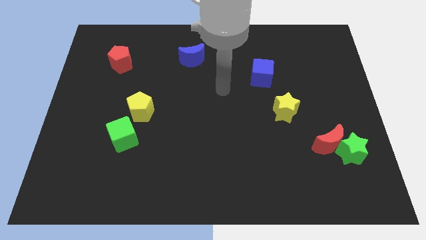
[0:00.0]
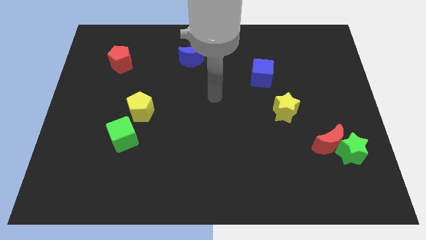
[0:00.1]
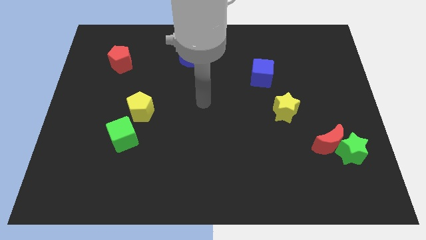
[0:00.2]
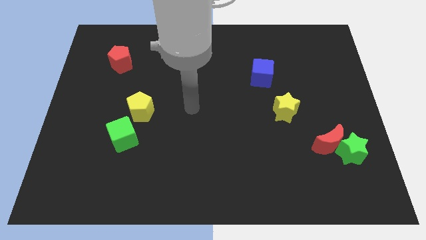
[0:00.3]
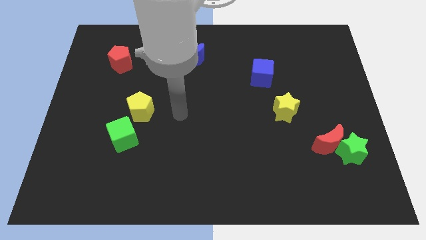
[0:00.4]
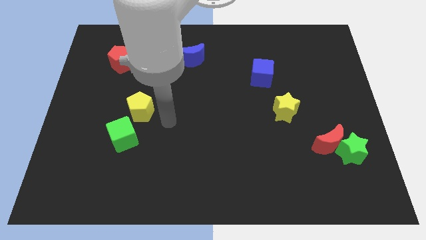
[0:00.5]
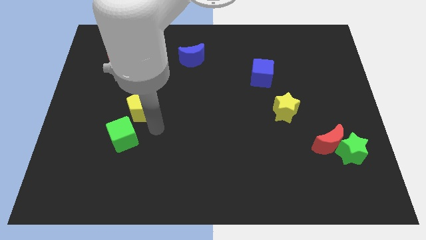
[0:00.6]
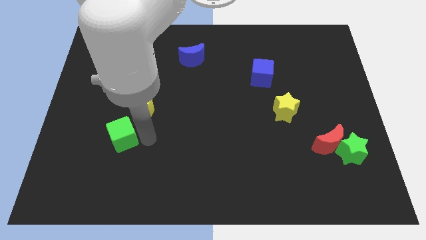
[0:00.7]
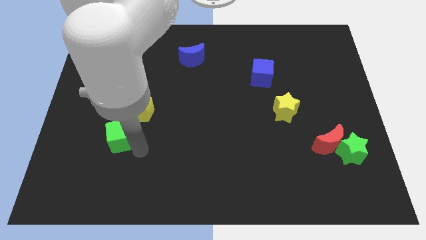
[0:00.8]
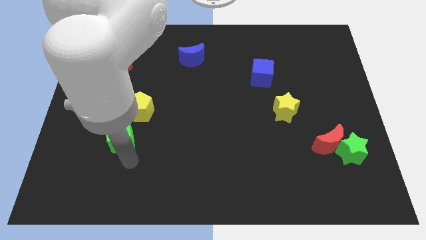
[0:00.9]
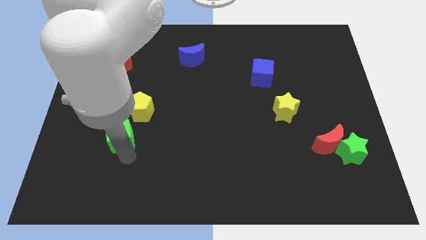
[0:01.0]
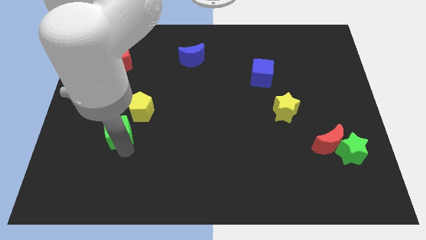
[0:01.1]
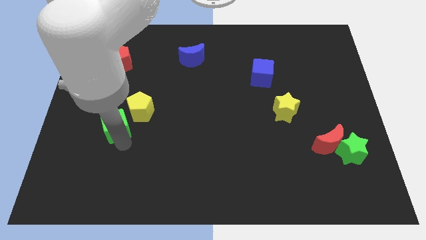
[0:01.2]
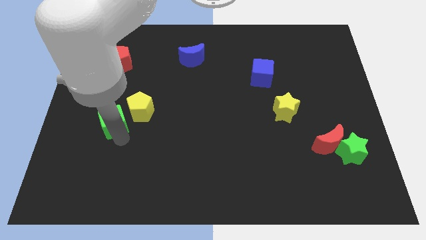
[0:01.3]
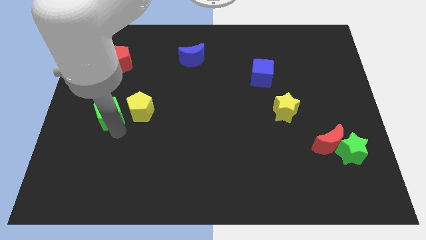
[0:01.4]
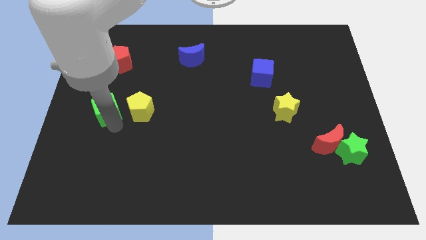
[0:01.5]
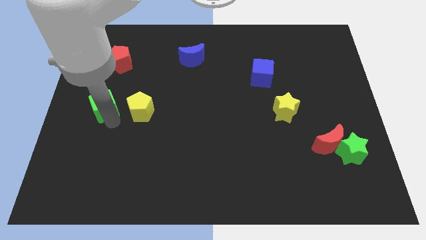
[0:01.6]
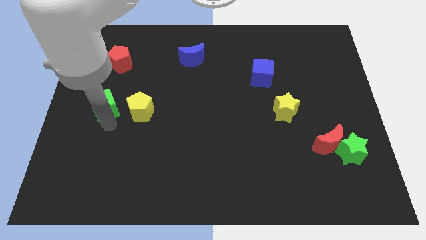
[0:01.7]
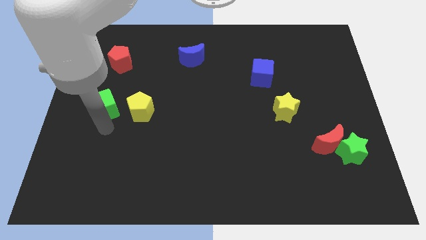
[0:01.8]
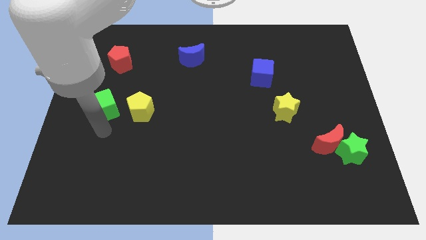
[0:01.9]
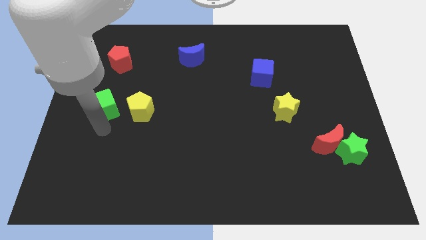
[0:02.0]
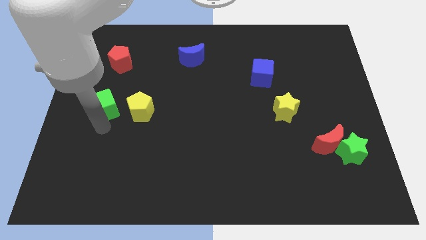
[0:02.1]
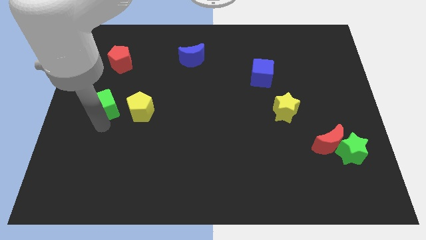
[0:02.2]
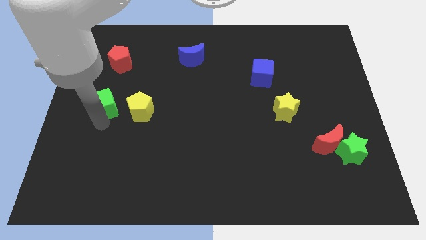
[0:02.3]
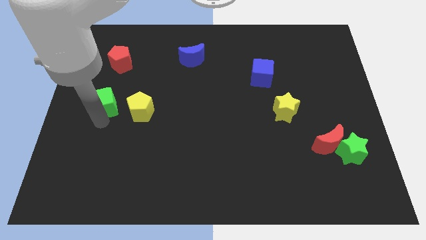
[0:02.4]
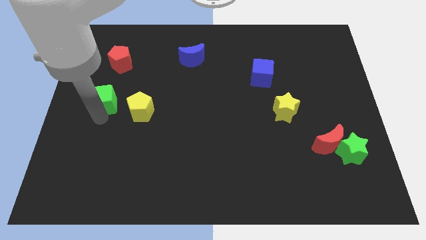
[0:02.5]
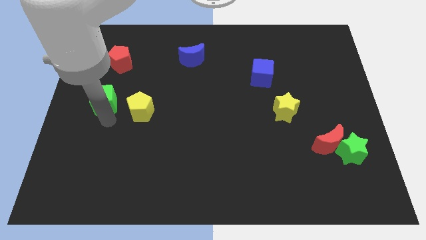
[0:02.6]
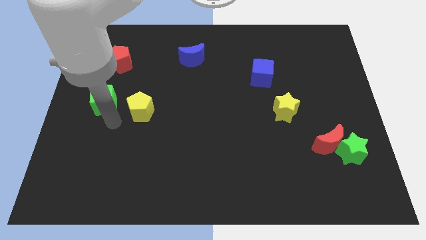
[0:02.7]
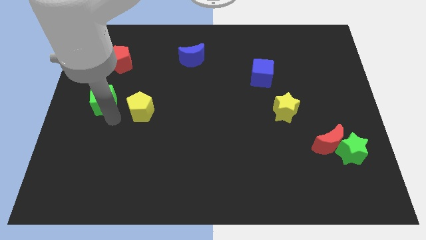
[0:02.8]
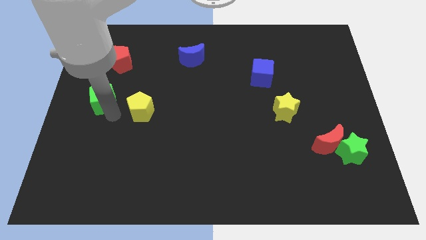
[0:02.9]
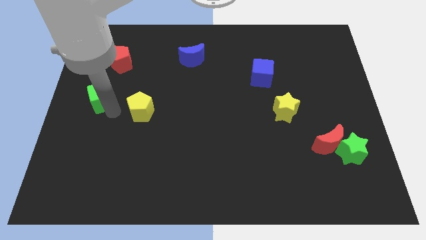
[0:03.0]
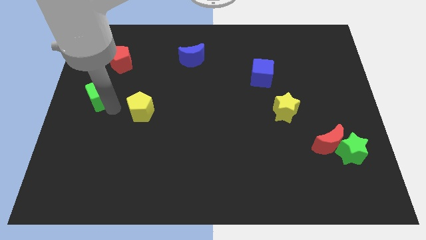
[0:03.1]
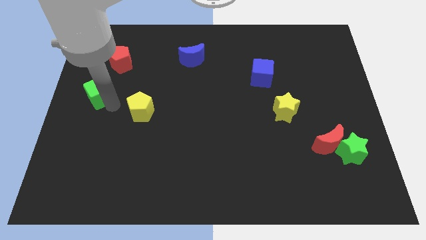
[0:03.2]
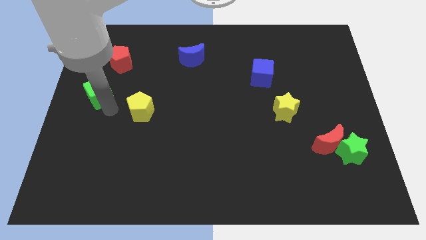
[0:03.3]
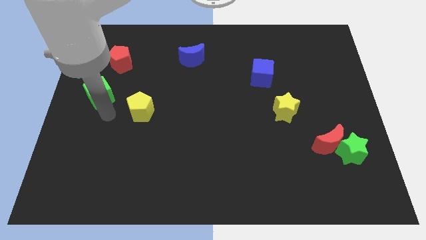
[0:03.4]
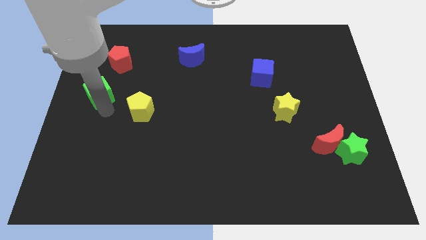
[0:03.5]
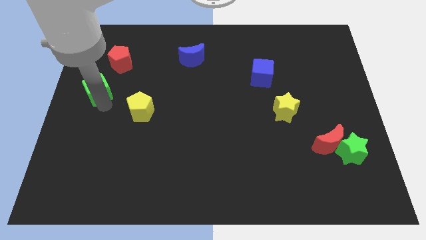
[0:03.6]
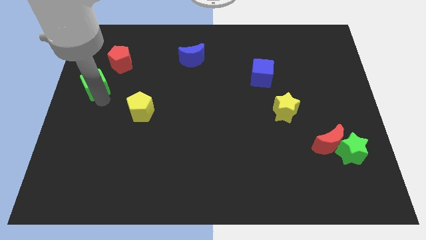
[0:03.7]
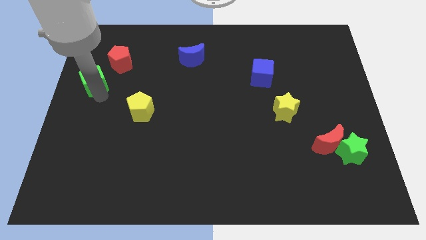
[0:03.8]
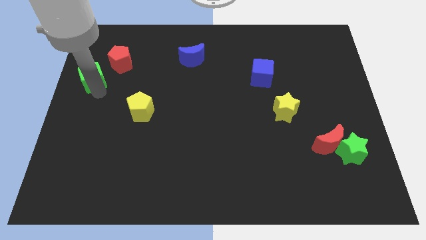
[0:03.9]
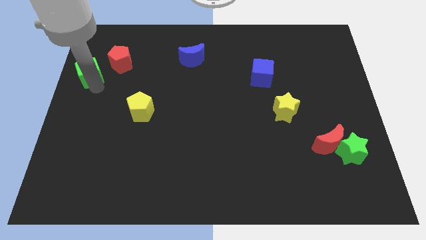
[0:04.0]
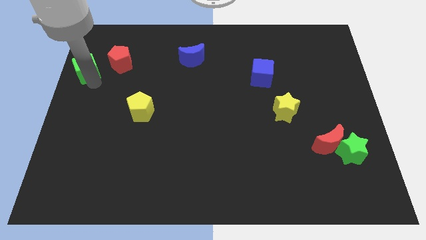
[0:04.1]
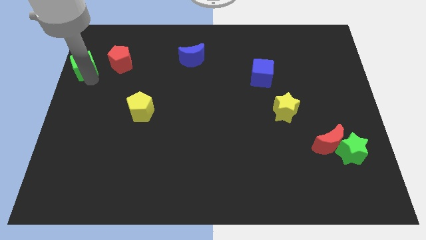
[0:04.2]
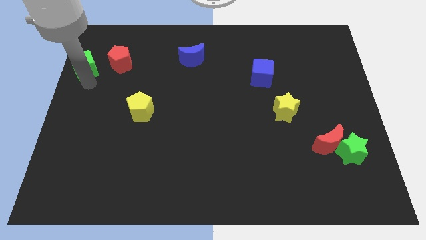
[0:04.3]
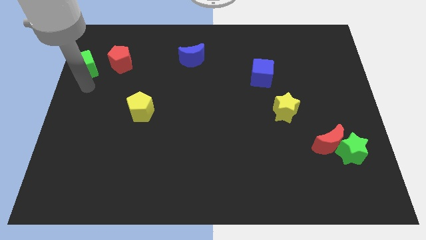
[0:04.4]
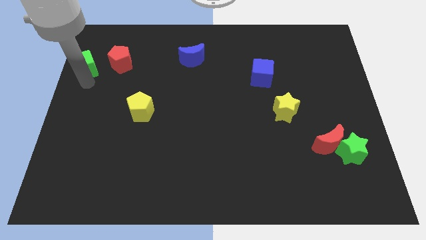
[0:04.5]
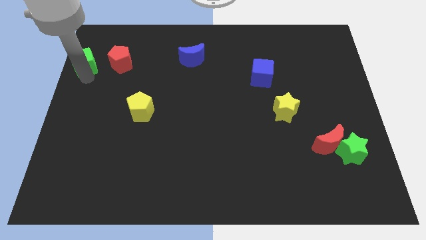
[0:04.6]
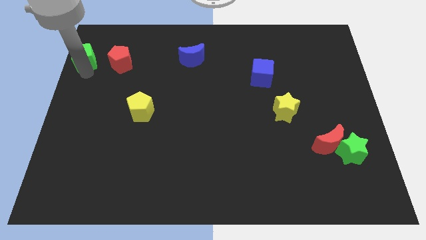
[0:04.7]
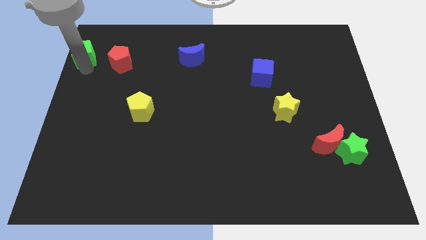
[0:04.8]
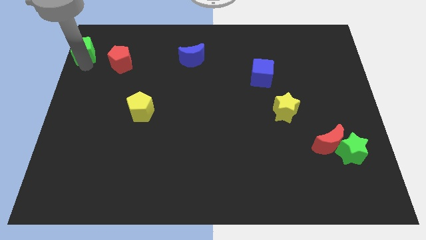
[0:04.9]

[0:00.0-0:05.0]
move the green cube to the top left corner

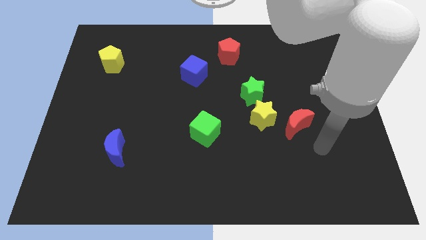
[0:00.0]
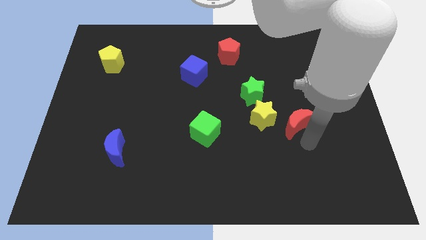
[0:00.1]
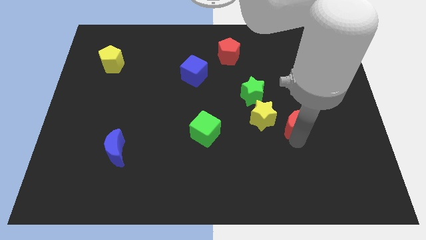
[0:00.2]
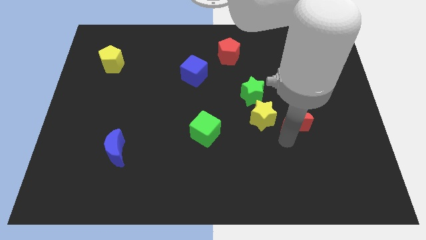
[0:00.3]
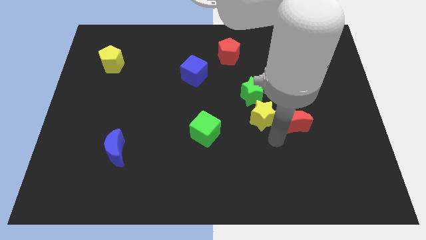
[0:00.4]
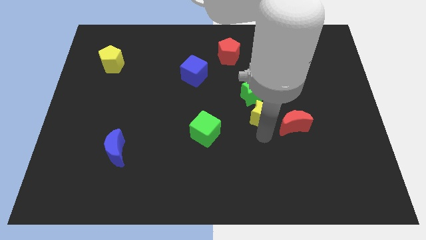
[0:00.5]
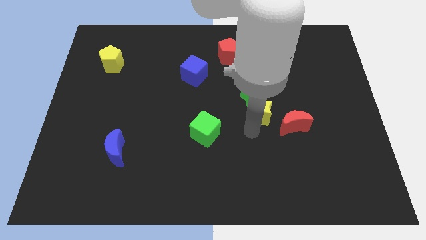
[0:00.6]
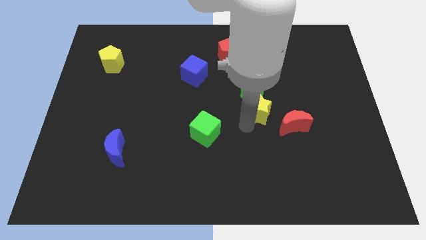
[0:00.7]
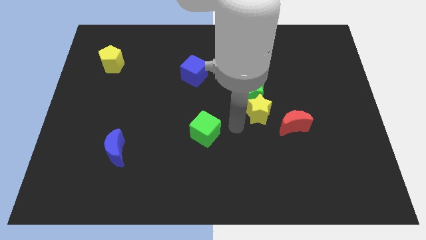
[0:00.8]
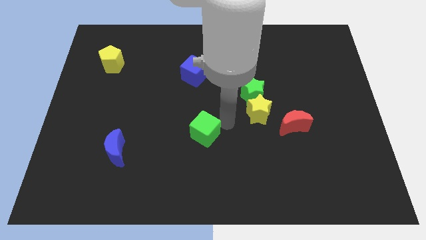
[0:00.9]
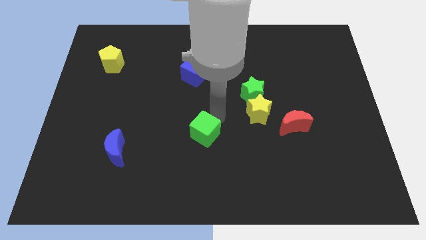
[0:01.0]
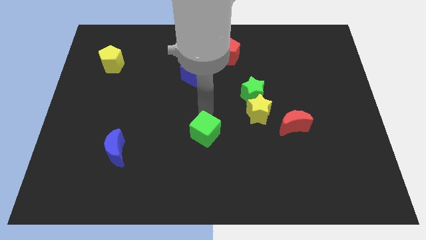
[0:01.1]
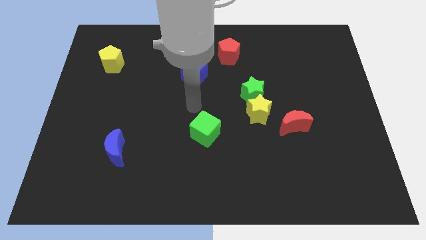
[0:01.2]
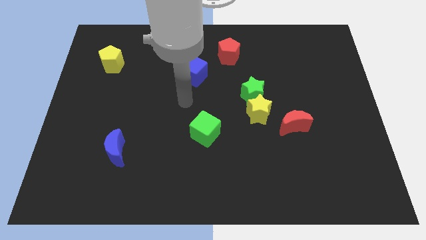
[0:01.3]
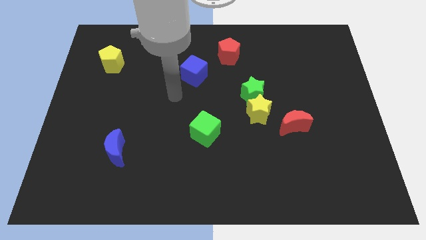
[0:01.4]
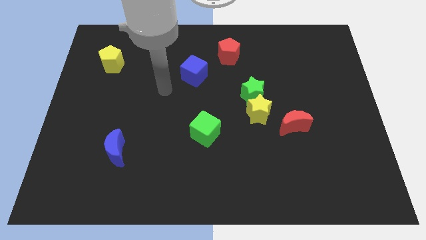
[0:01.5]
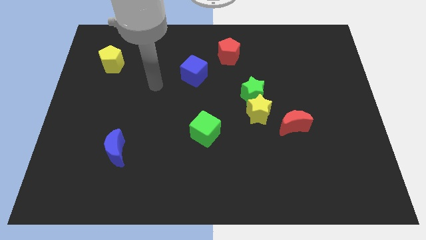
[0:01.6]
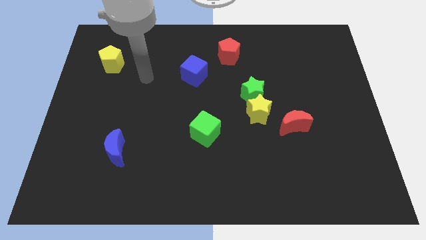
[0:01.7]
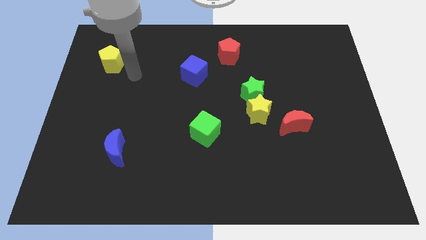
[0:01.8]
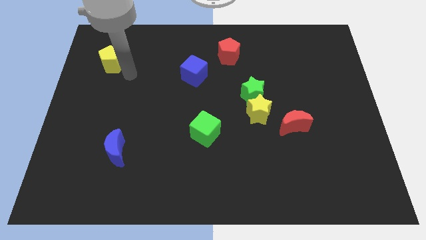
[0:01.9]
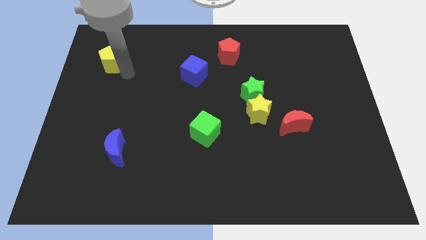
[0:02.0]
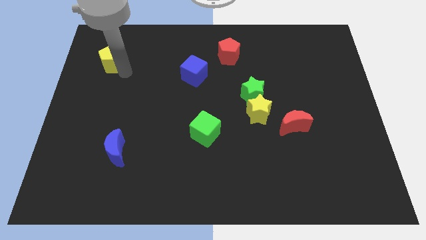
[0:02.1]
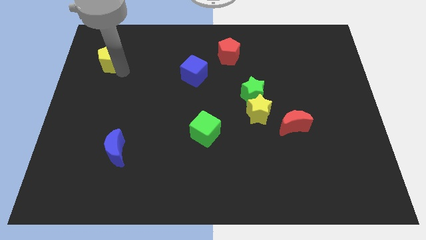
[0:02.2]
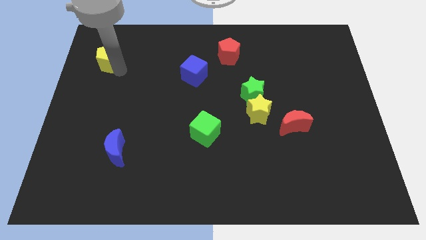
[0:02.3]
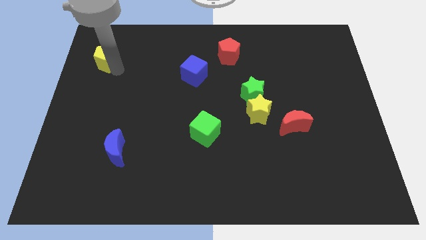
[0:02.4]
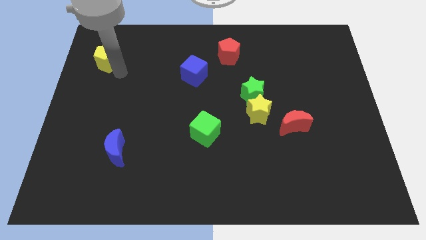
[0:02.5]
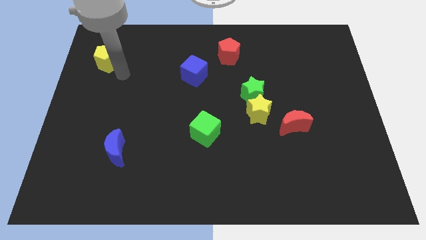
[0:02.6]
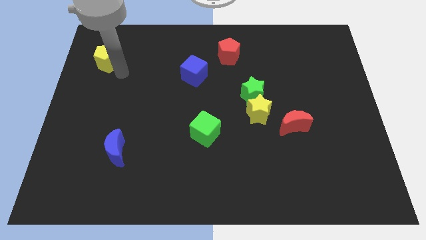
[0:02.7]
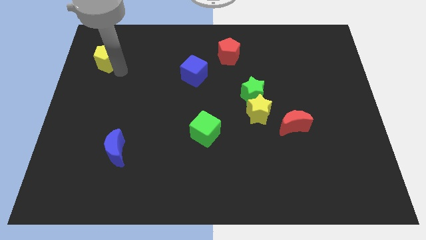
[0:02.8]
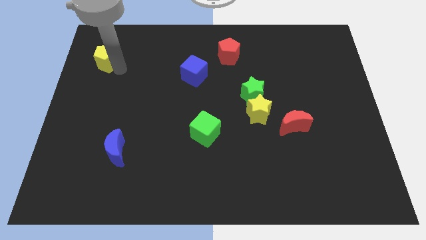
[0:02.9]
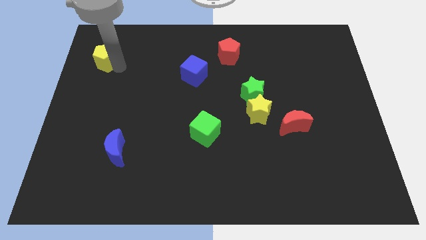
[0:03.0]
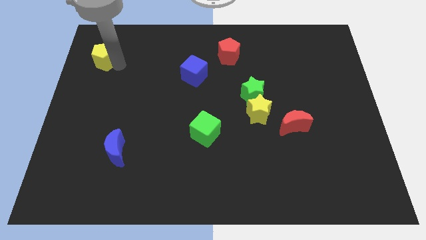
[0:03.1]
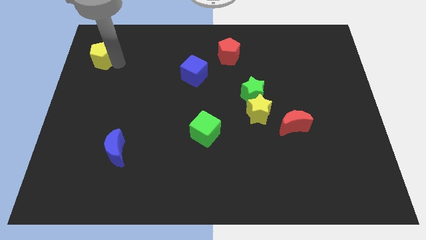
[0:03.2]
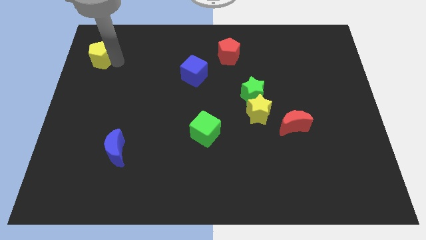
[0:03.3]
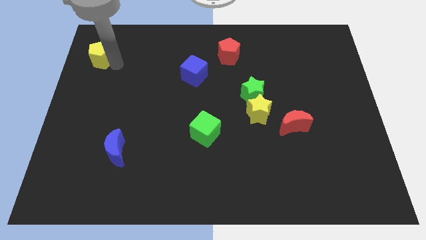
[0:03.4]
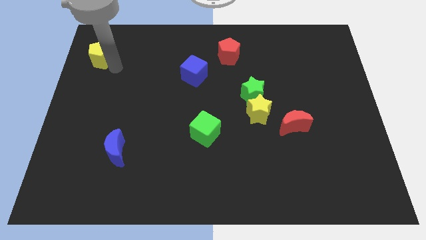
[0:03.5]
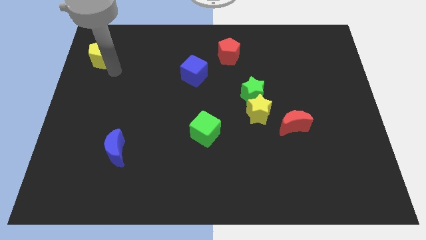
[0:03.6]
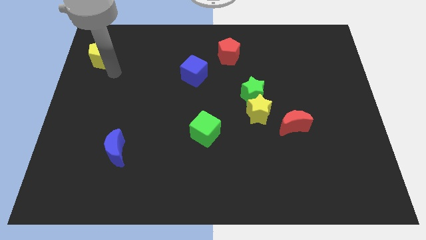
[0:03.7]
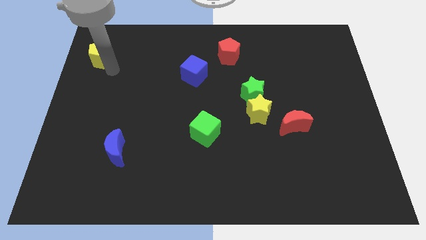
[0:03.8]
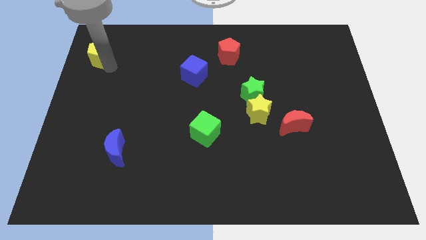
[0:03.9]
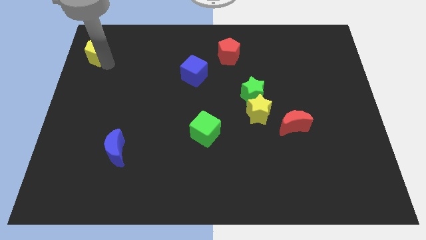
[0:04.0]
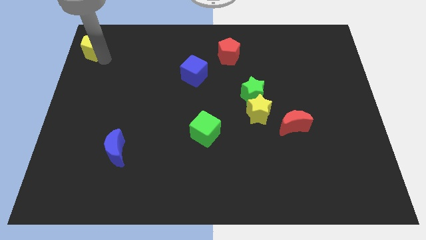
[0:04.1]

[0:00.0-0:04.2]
push the yellow pentagon to the top left of the board
